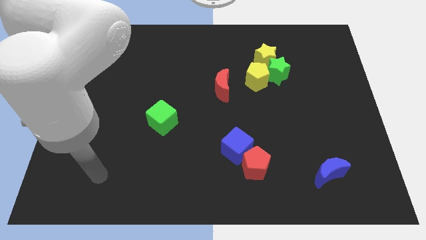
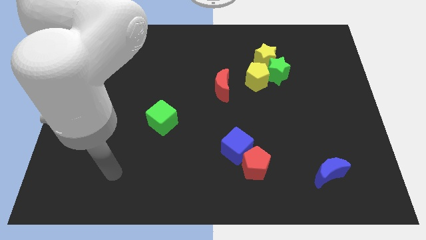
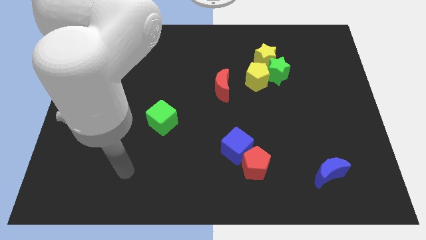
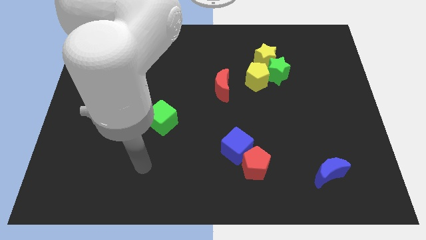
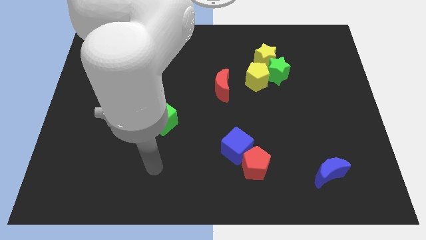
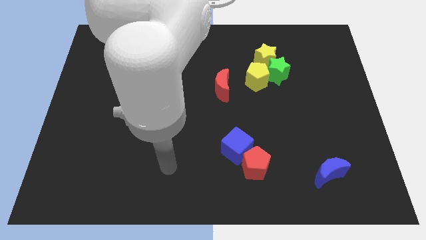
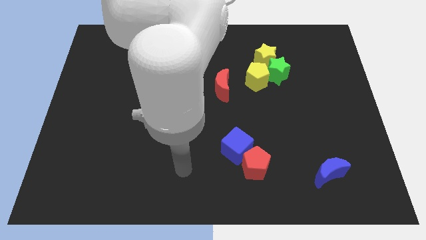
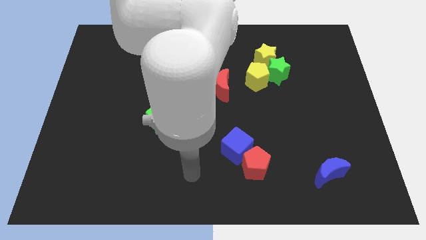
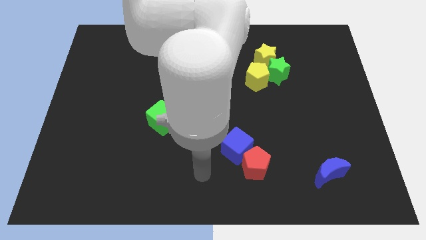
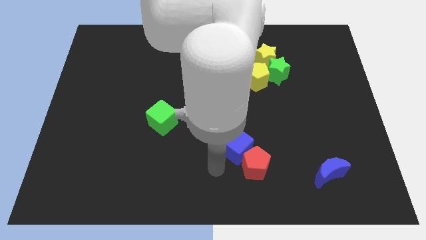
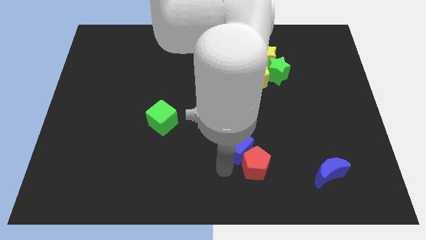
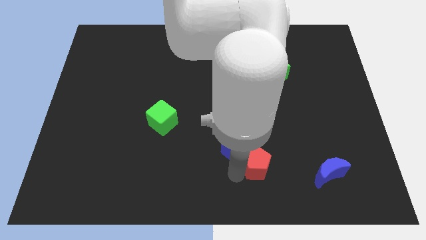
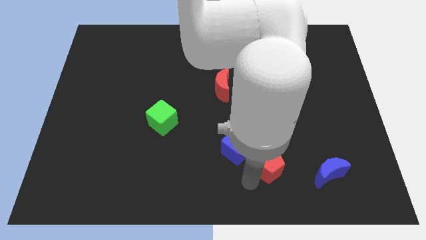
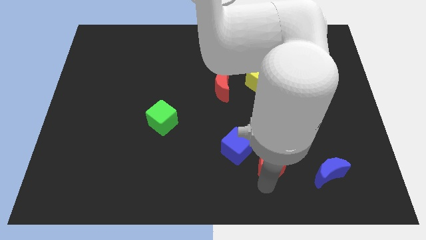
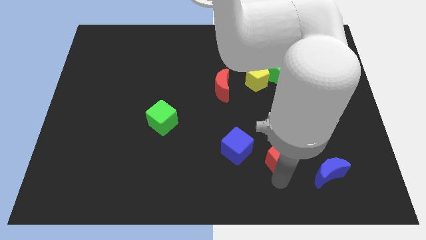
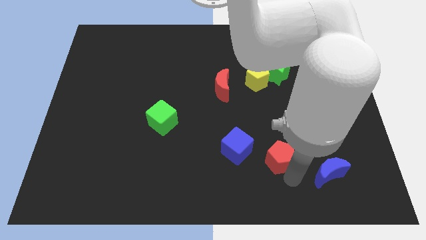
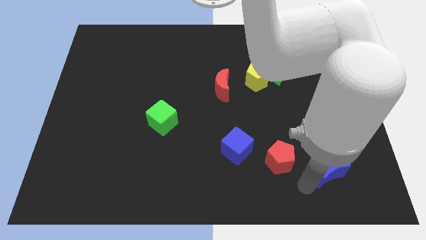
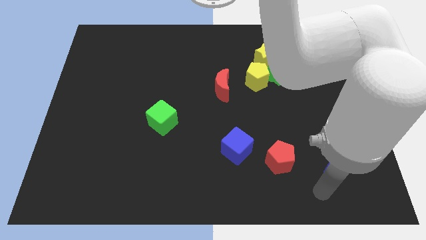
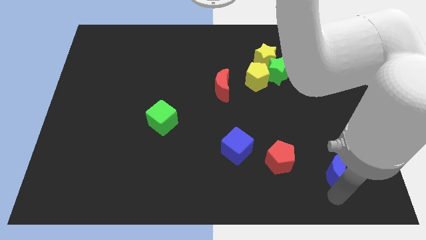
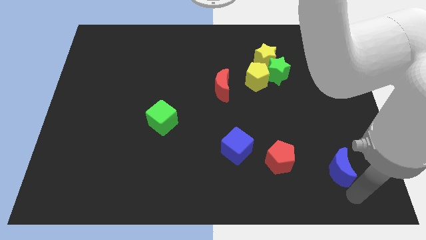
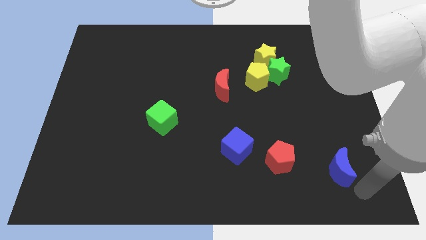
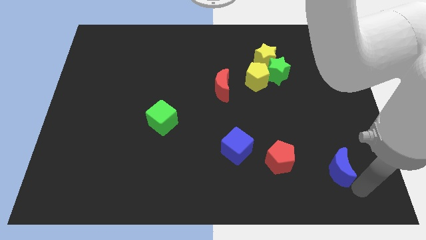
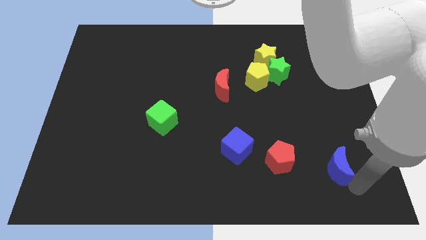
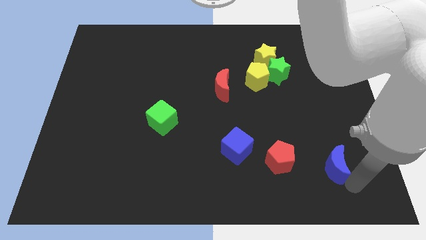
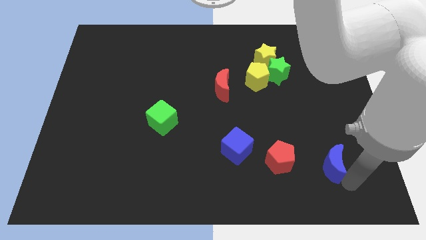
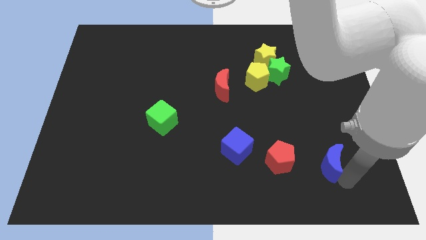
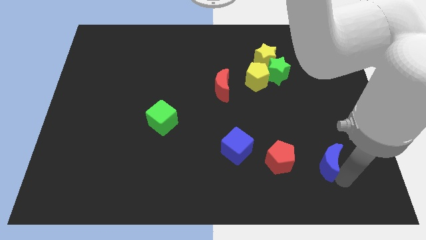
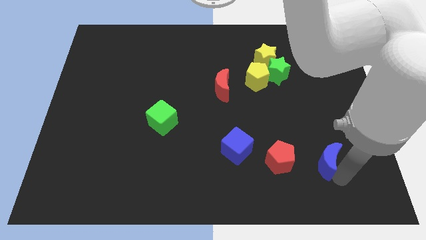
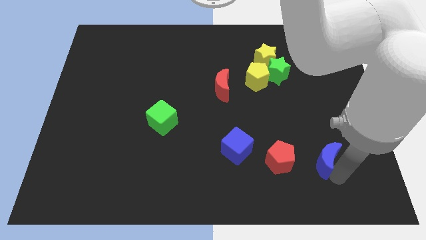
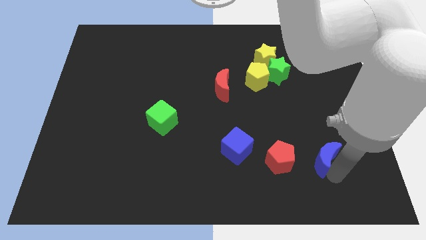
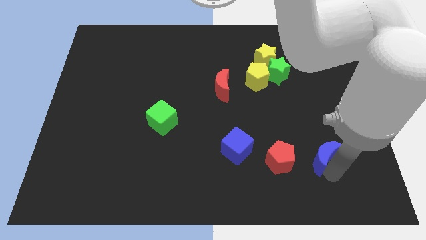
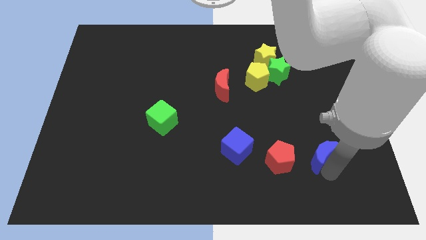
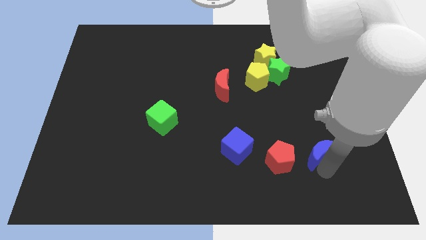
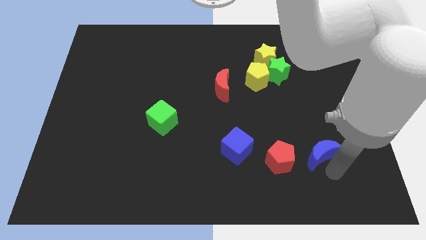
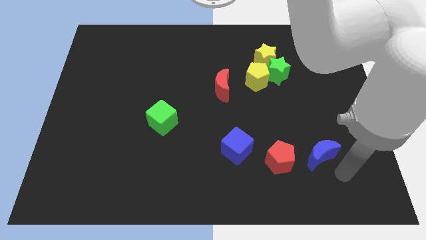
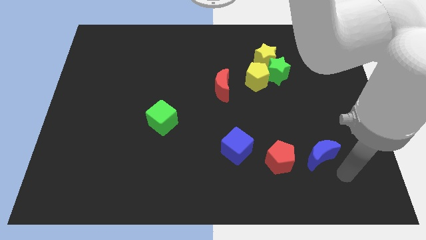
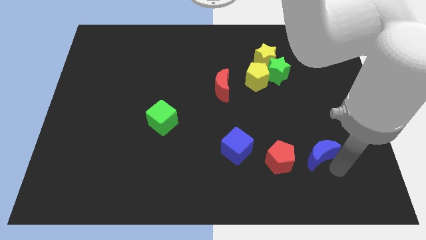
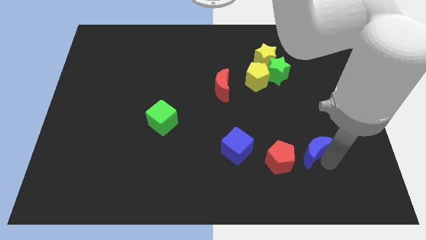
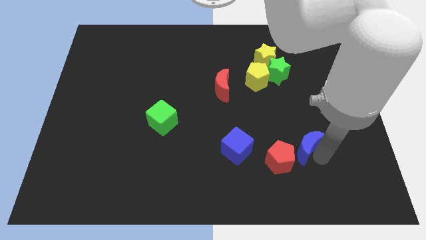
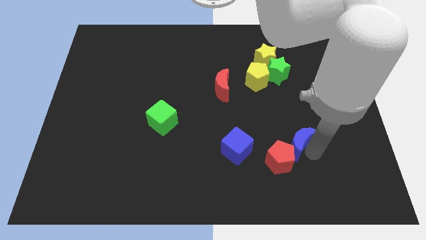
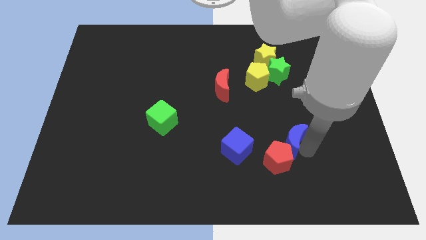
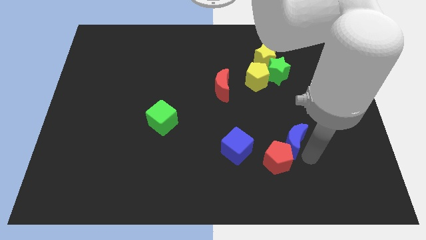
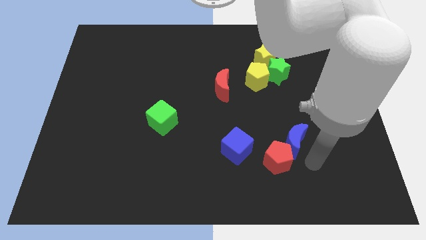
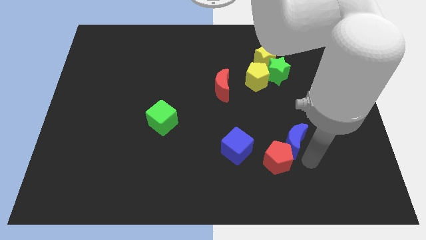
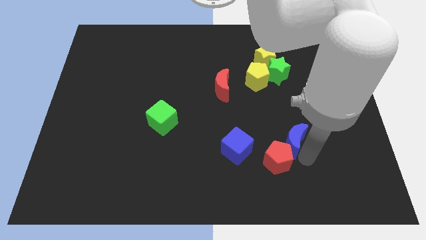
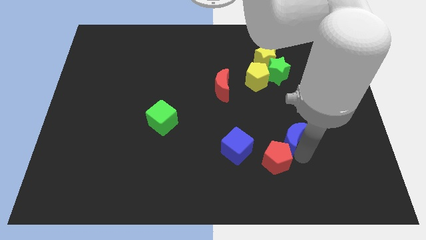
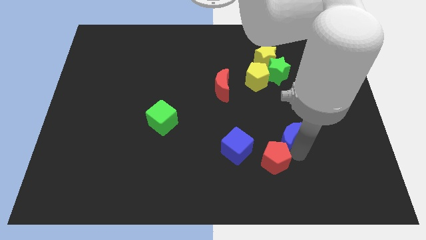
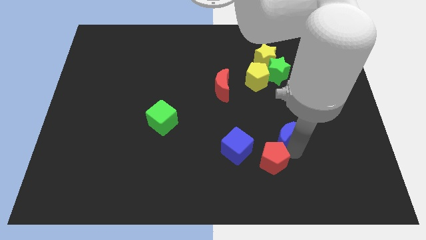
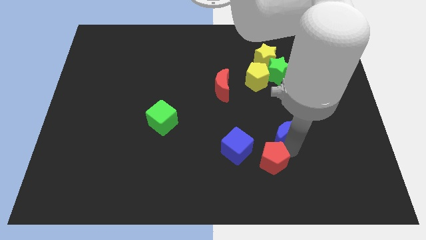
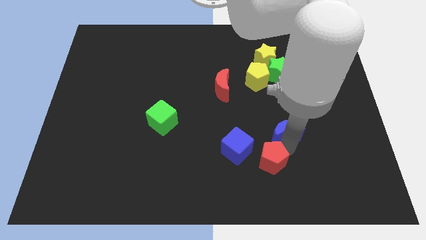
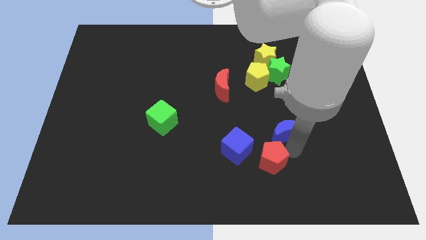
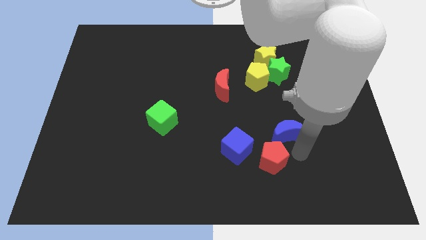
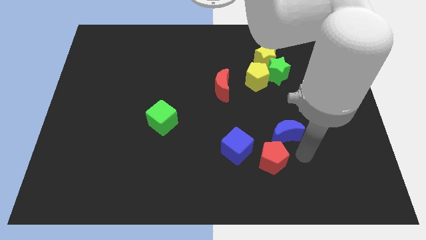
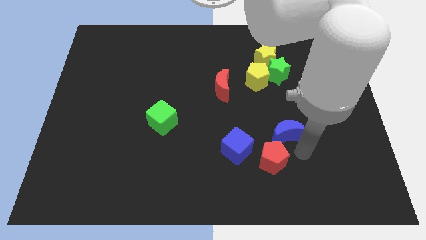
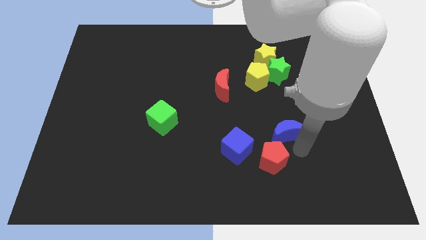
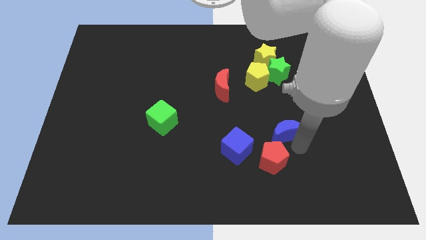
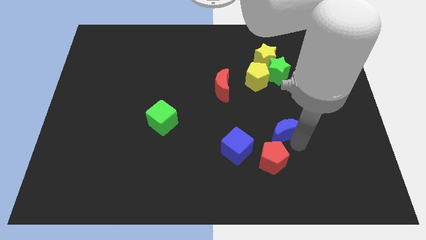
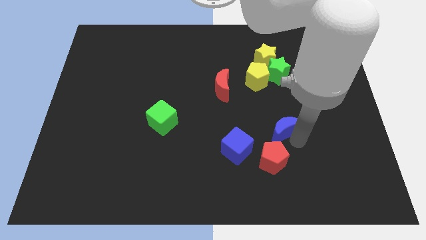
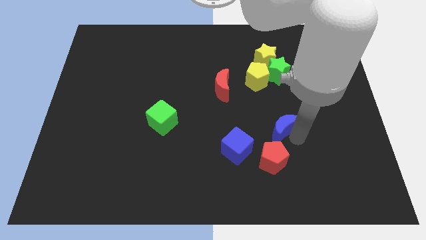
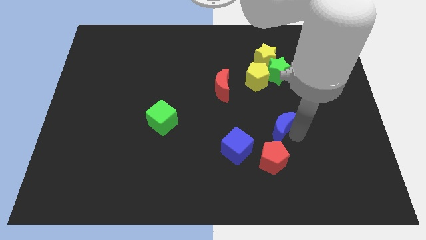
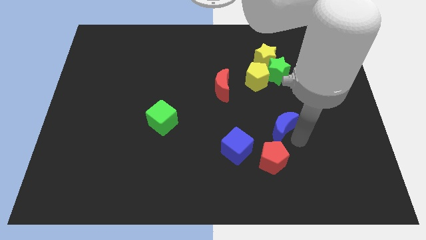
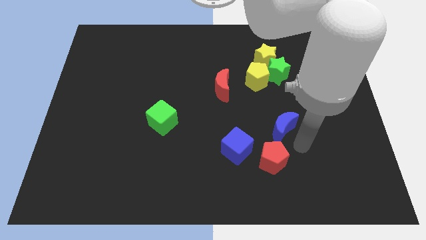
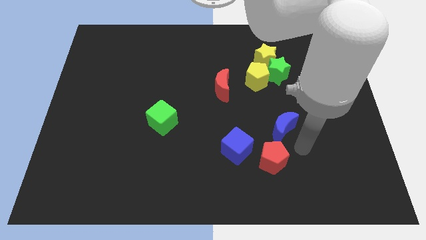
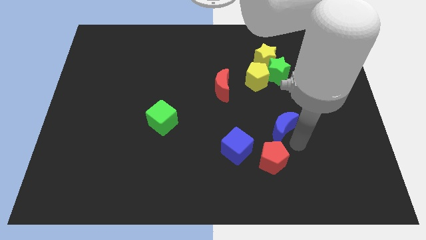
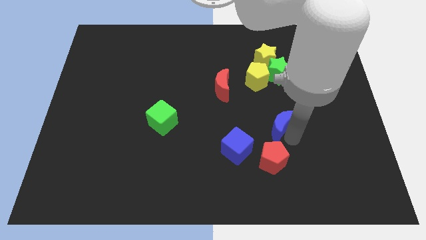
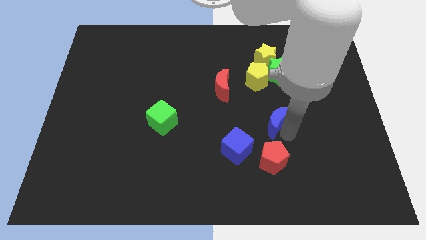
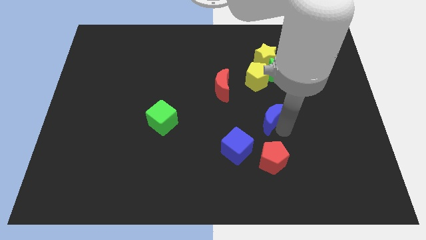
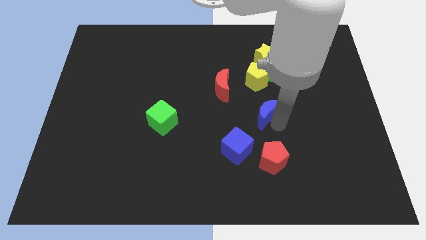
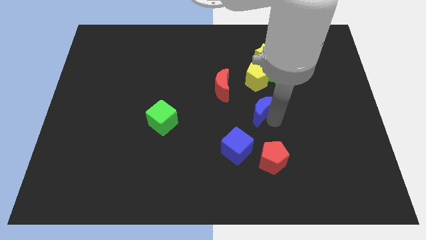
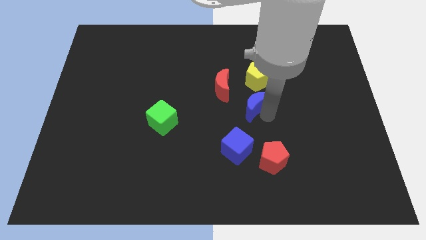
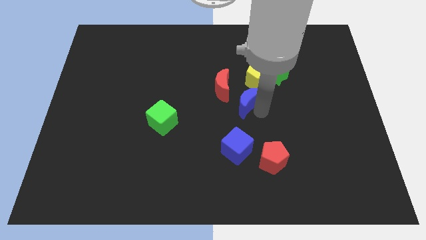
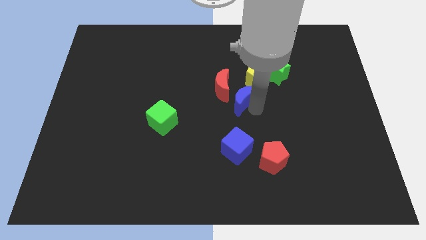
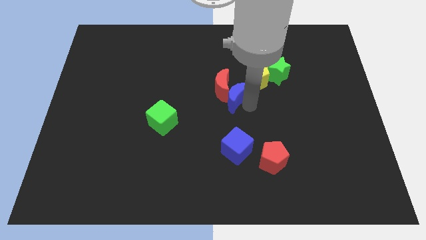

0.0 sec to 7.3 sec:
move the blue moon close to the red moon
